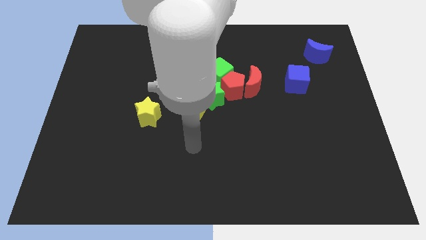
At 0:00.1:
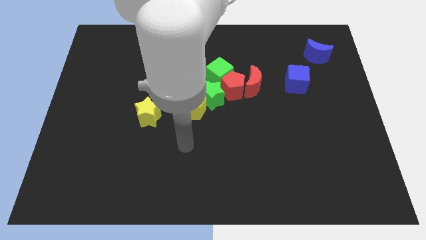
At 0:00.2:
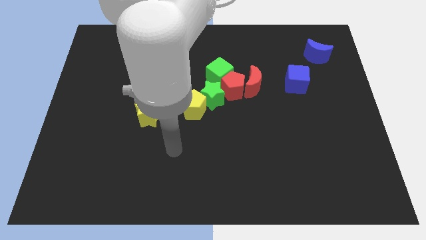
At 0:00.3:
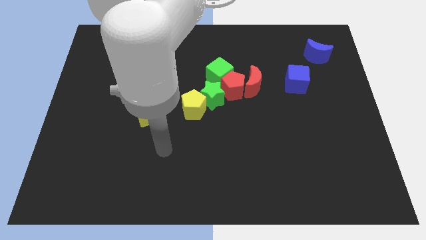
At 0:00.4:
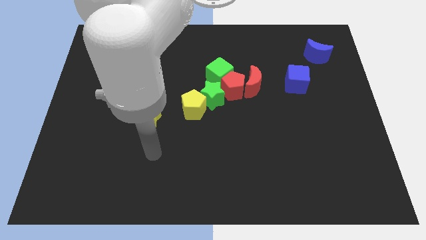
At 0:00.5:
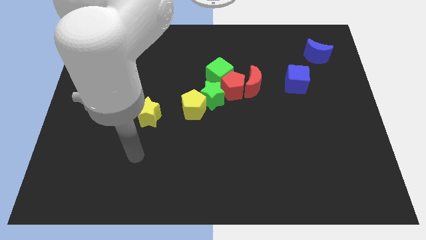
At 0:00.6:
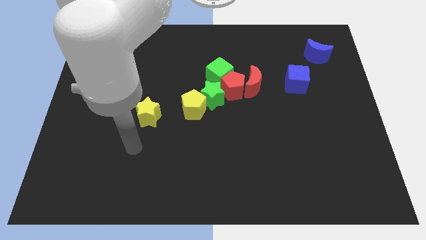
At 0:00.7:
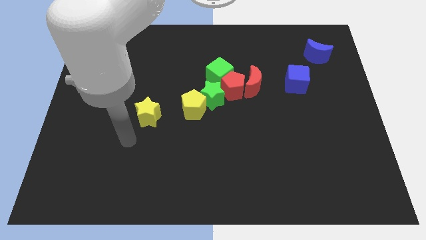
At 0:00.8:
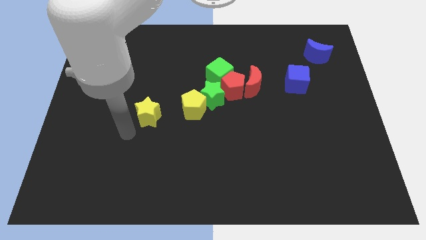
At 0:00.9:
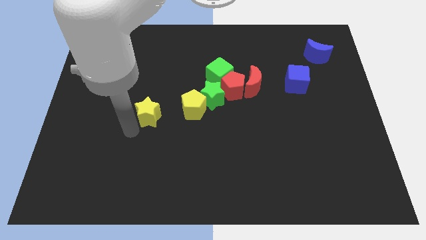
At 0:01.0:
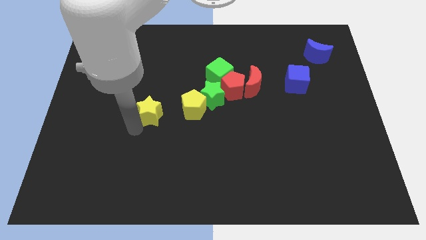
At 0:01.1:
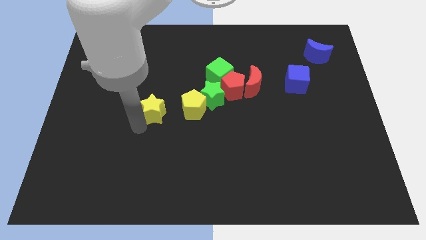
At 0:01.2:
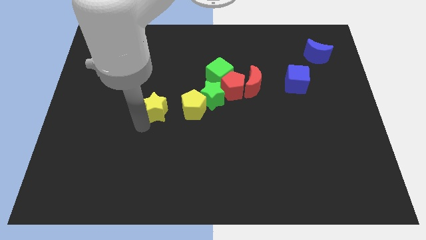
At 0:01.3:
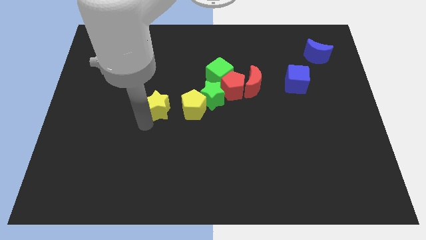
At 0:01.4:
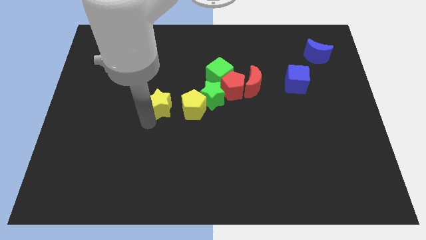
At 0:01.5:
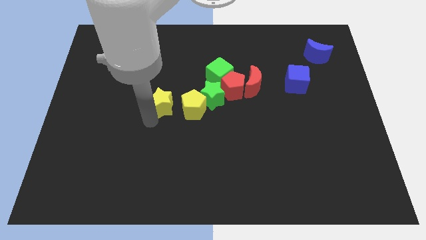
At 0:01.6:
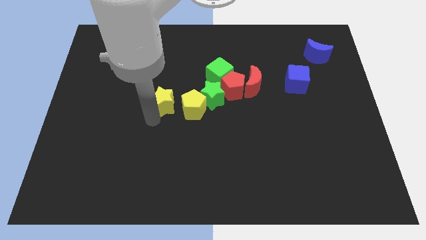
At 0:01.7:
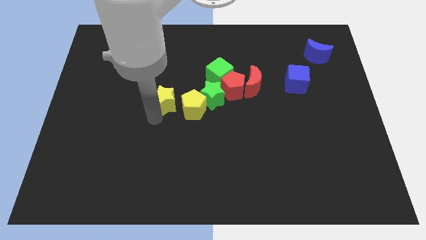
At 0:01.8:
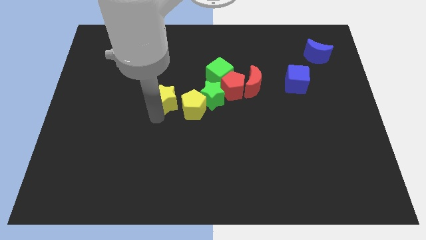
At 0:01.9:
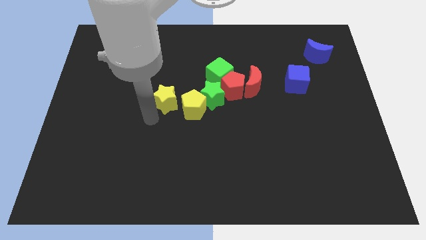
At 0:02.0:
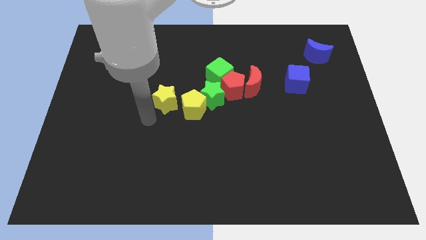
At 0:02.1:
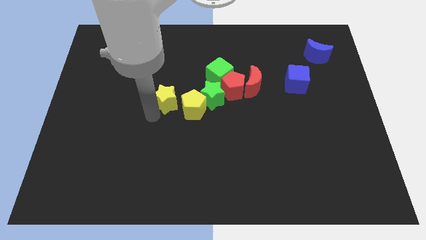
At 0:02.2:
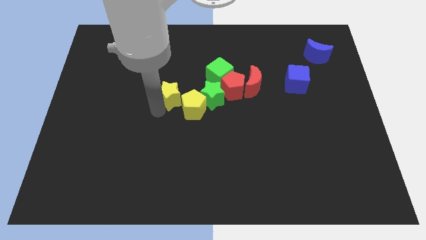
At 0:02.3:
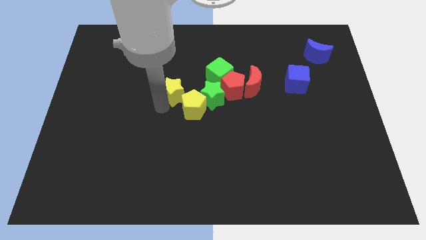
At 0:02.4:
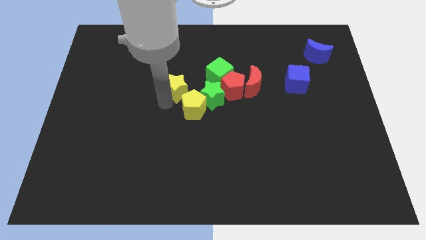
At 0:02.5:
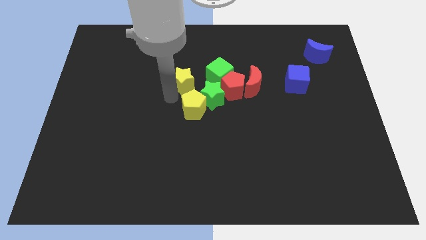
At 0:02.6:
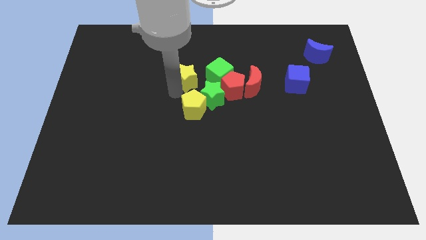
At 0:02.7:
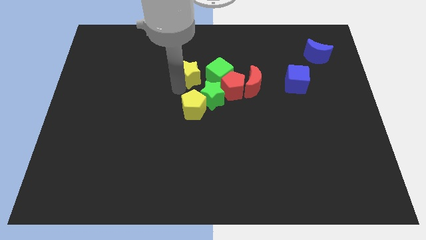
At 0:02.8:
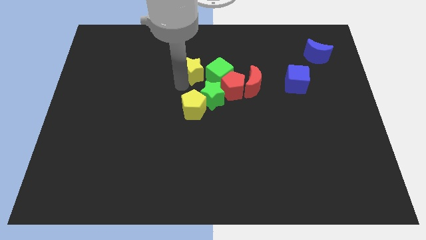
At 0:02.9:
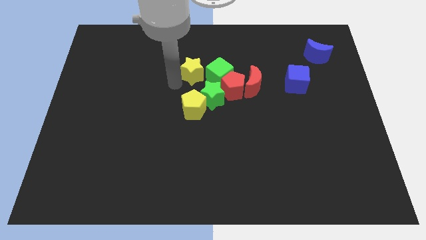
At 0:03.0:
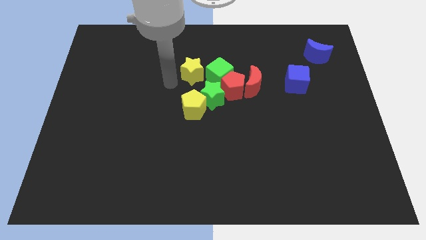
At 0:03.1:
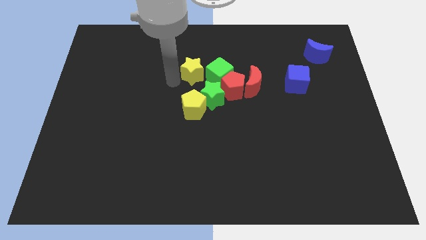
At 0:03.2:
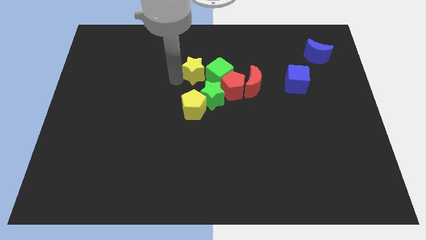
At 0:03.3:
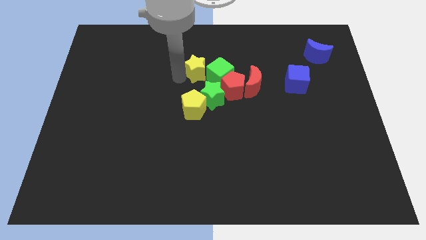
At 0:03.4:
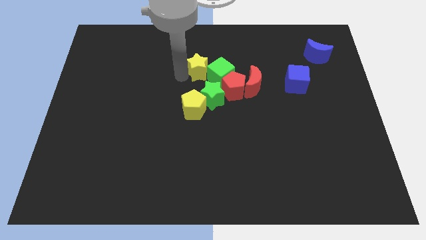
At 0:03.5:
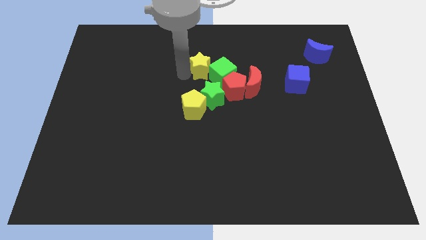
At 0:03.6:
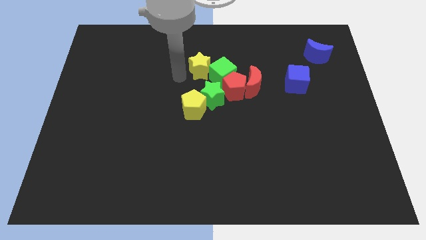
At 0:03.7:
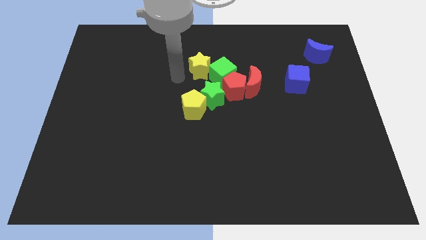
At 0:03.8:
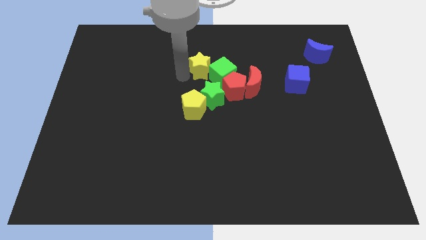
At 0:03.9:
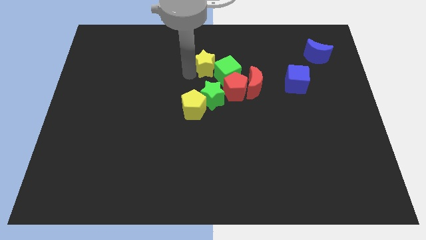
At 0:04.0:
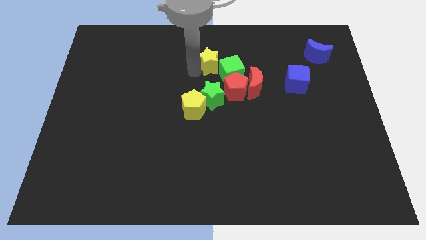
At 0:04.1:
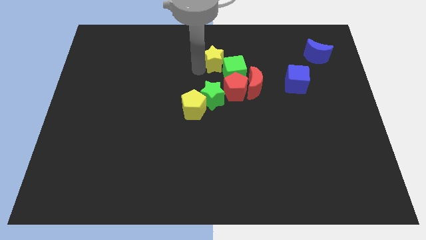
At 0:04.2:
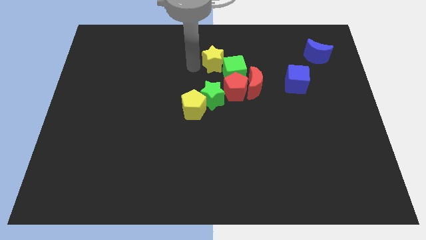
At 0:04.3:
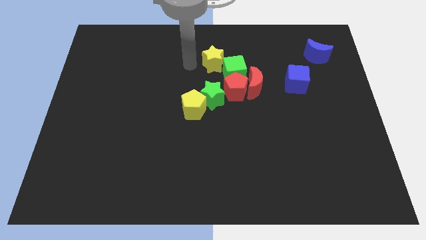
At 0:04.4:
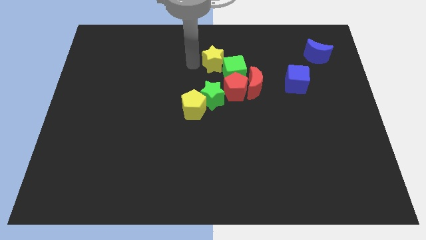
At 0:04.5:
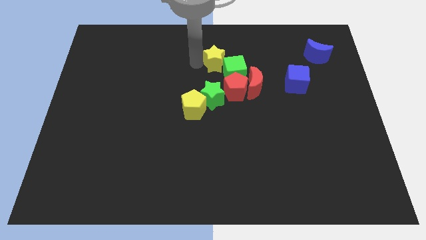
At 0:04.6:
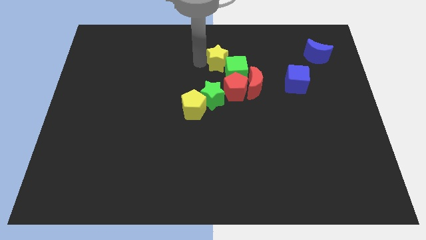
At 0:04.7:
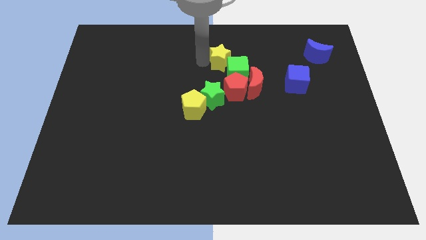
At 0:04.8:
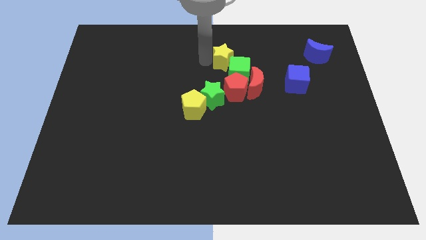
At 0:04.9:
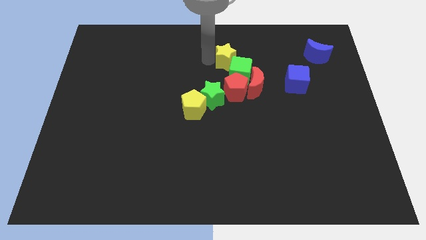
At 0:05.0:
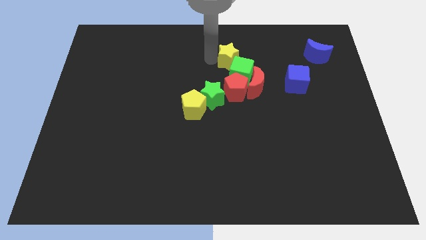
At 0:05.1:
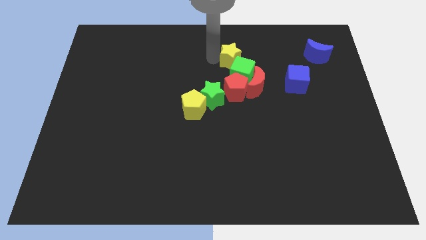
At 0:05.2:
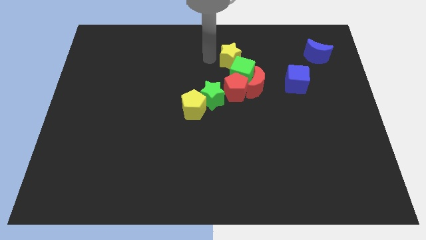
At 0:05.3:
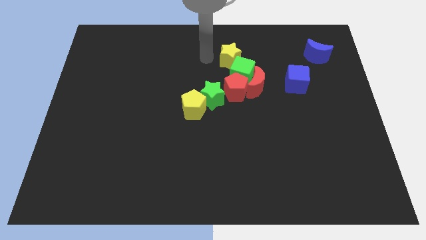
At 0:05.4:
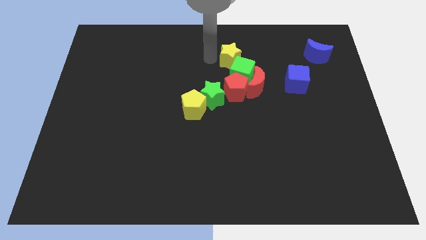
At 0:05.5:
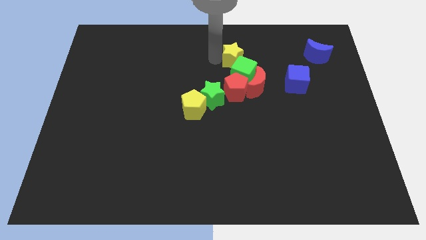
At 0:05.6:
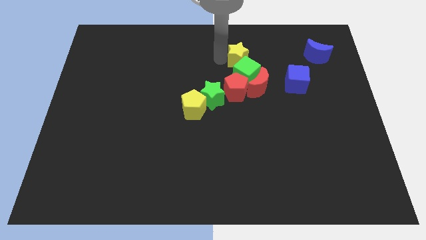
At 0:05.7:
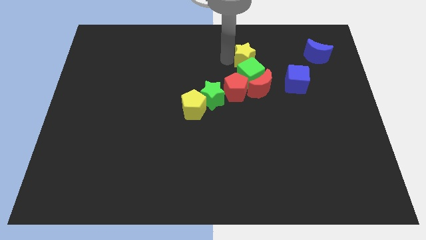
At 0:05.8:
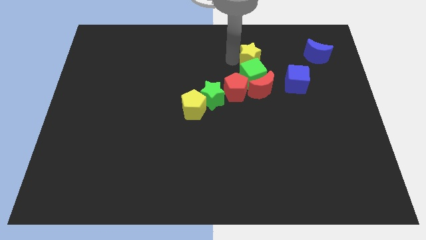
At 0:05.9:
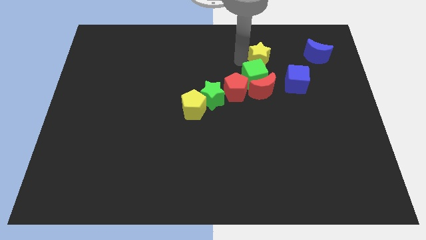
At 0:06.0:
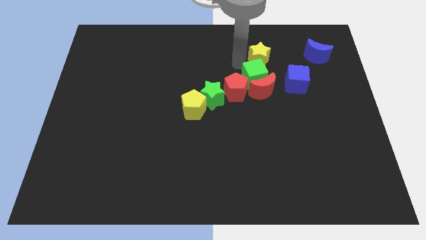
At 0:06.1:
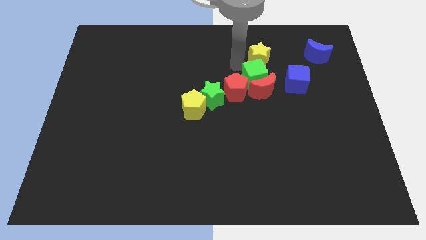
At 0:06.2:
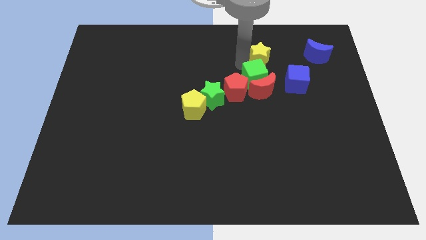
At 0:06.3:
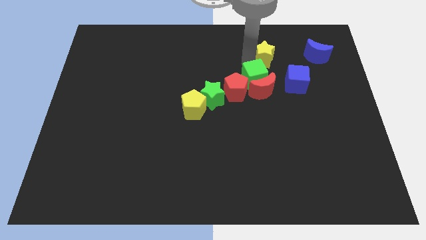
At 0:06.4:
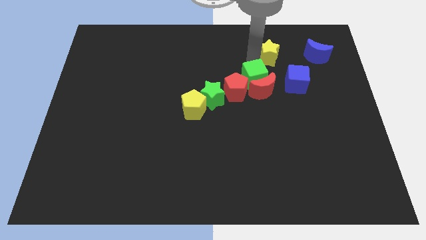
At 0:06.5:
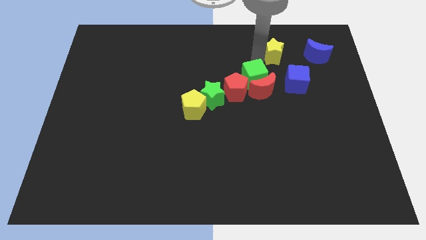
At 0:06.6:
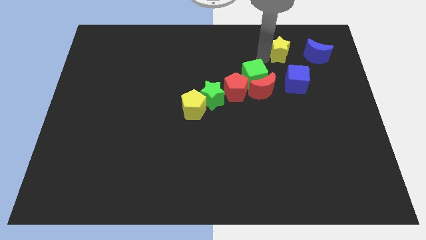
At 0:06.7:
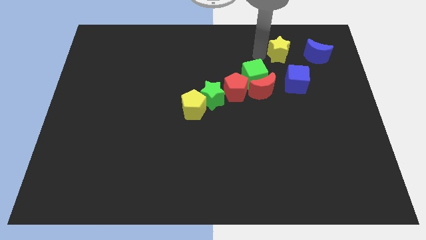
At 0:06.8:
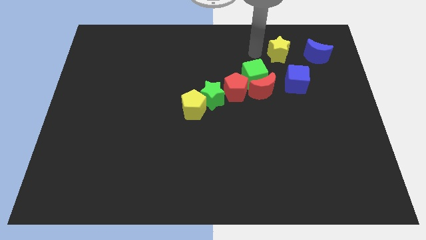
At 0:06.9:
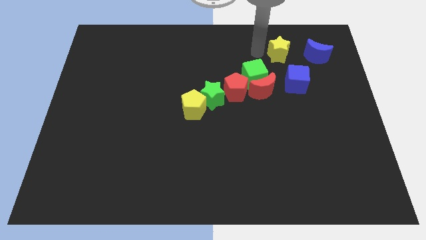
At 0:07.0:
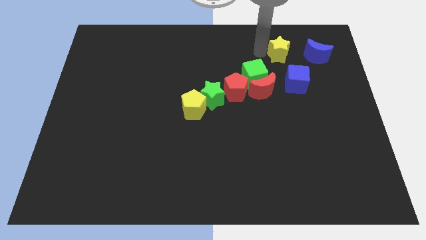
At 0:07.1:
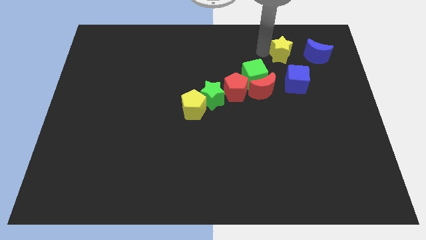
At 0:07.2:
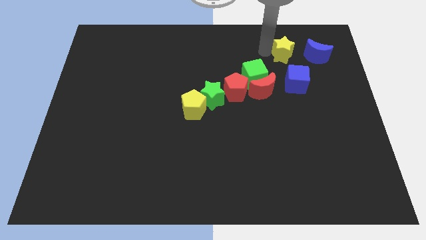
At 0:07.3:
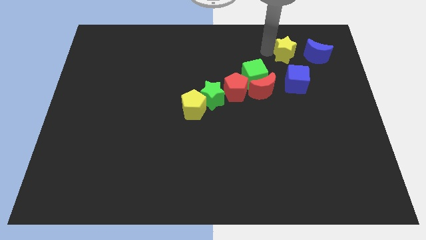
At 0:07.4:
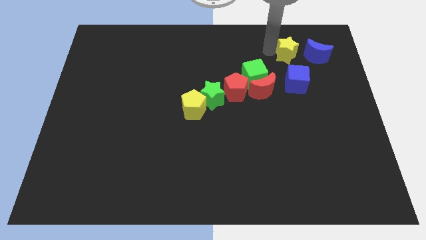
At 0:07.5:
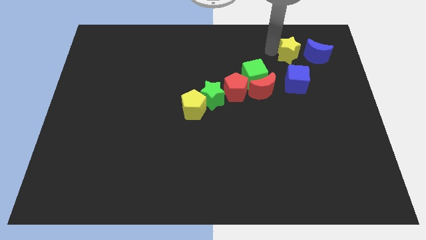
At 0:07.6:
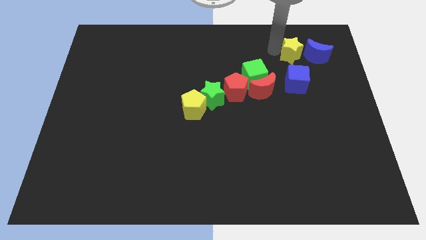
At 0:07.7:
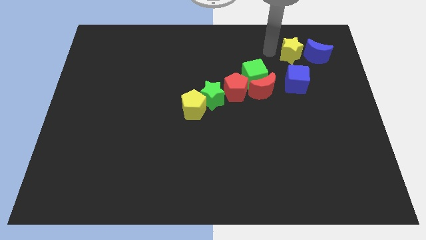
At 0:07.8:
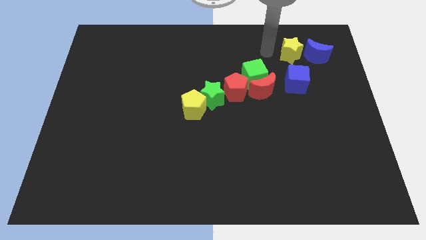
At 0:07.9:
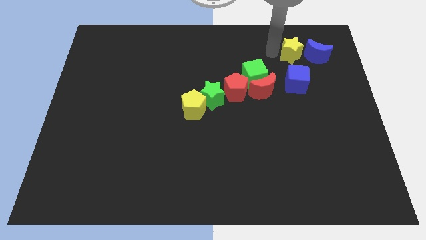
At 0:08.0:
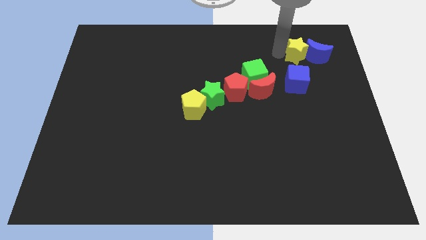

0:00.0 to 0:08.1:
slide the yellow star to the blue moon
